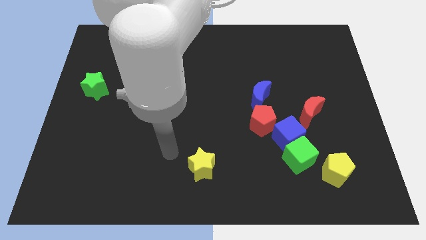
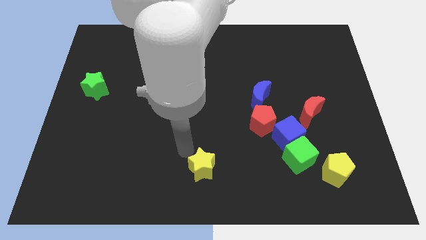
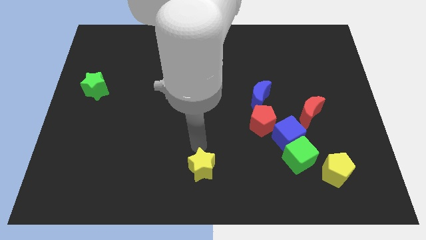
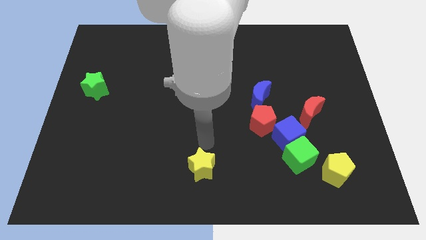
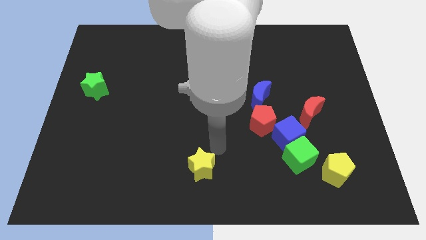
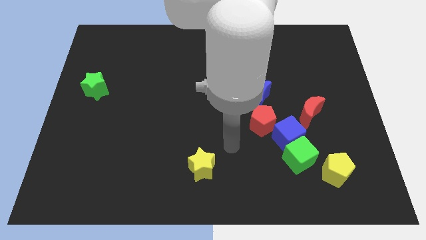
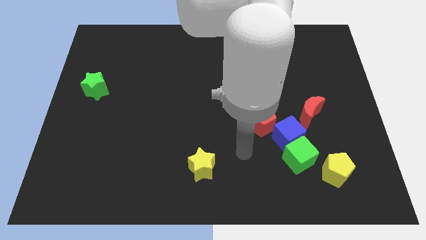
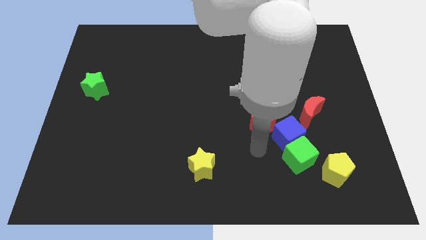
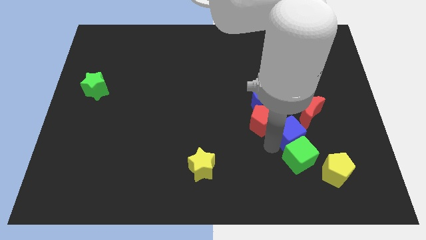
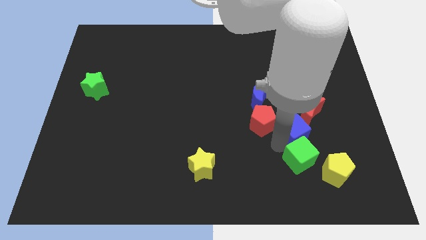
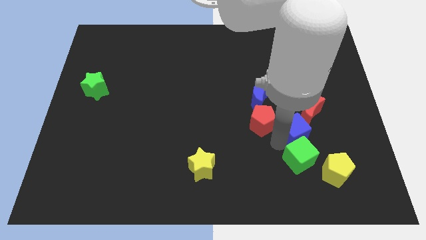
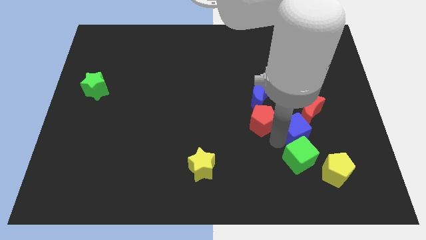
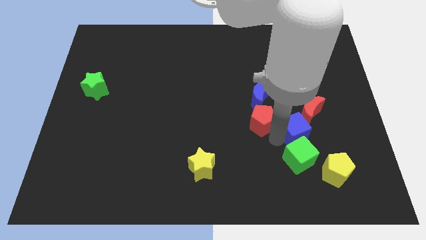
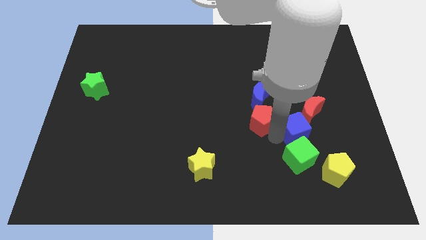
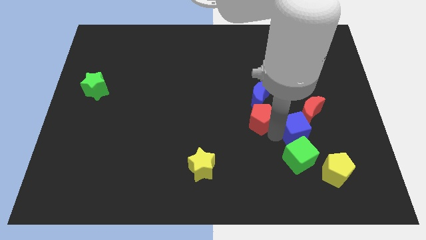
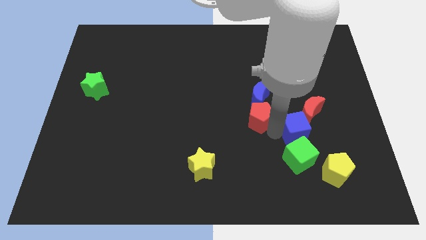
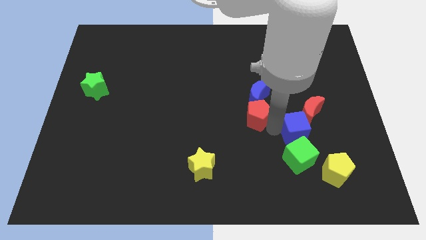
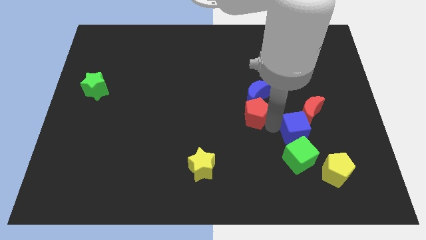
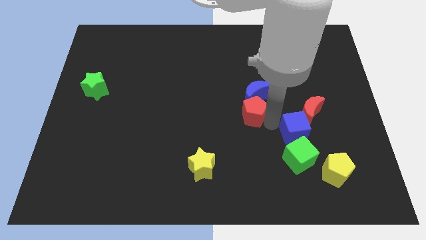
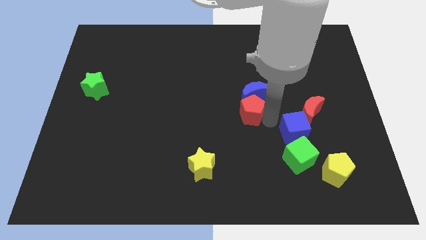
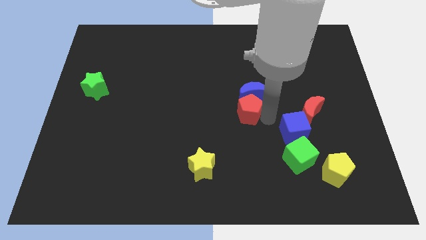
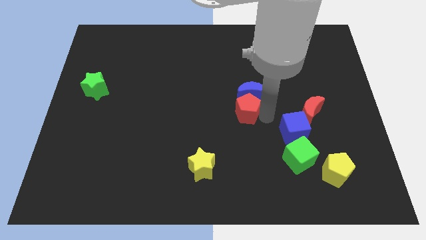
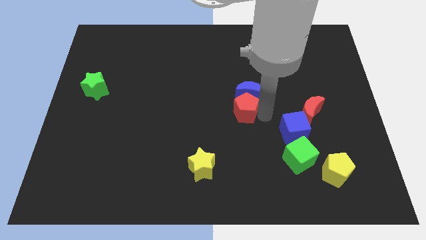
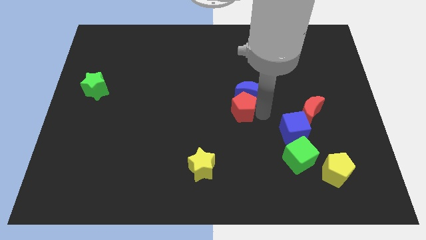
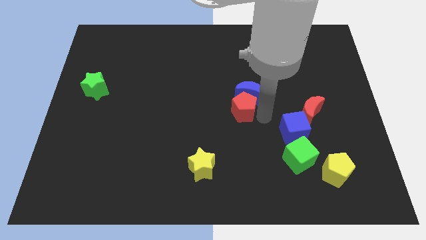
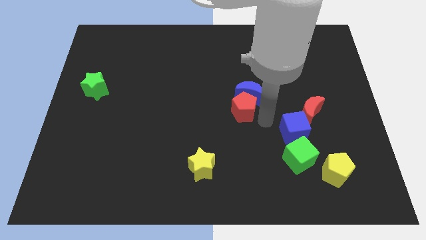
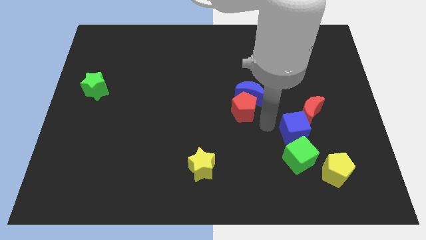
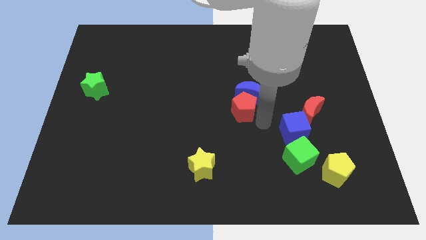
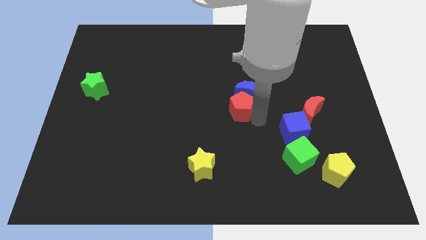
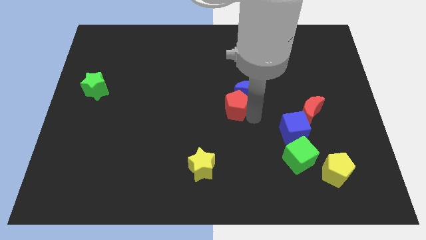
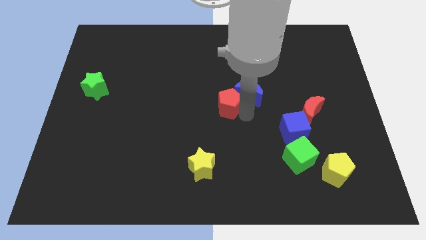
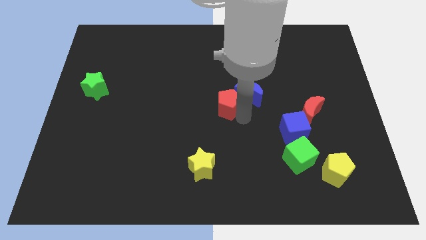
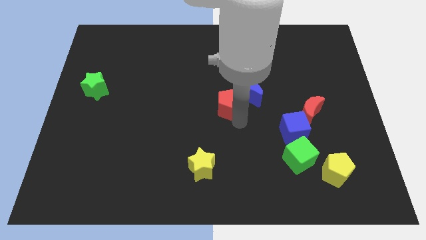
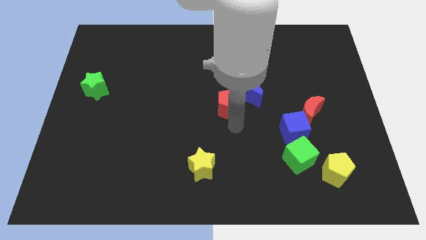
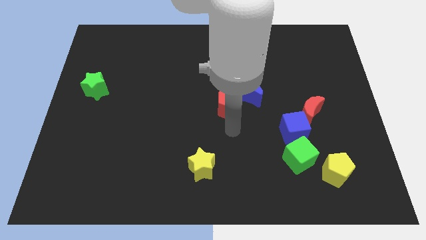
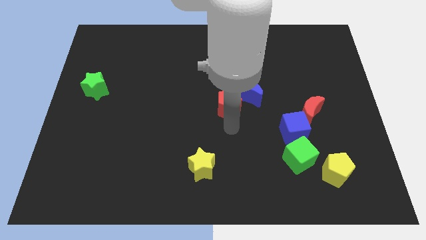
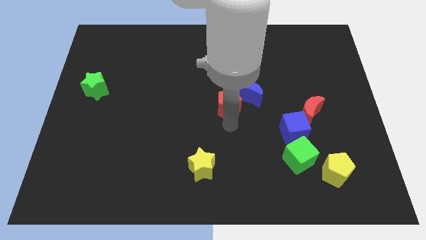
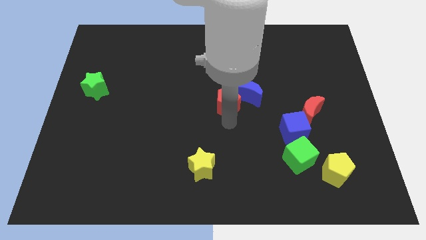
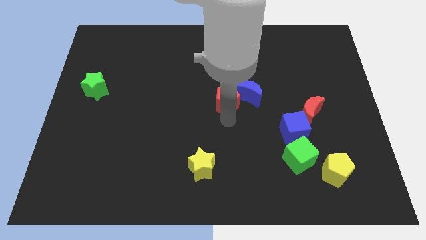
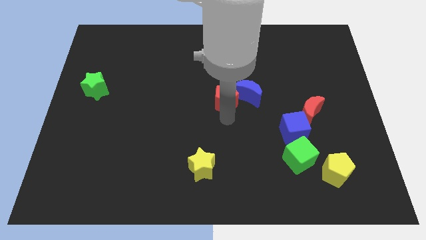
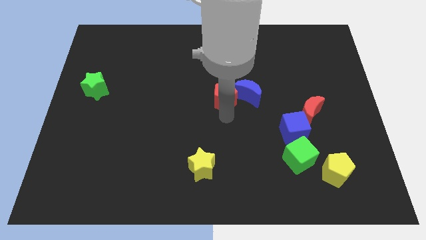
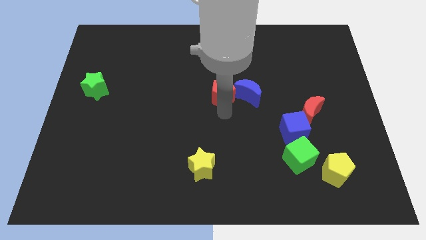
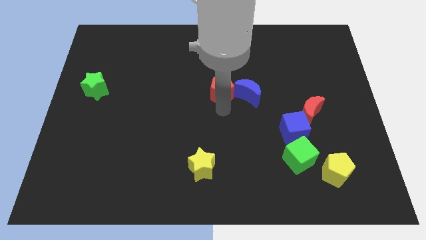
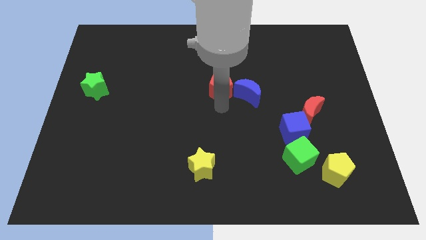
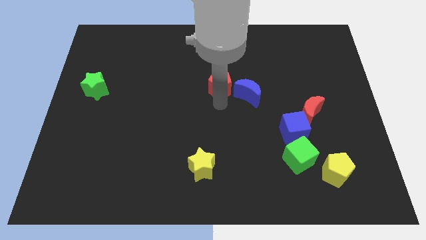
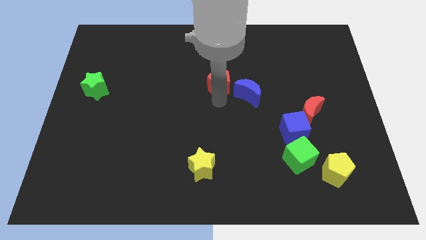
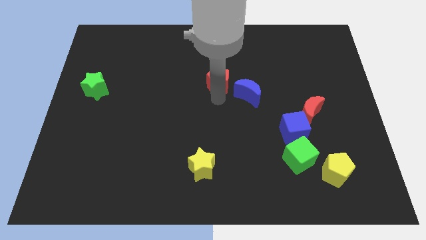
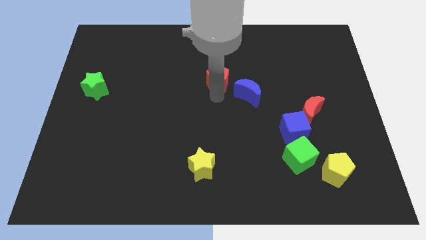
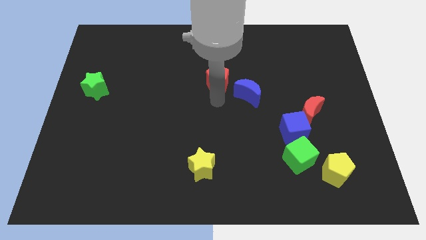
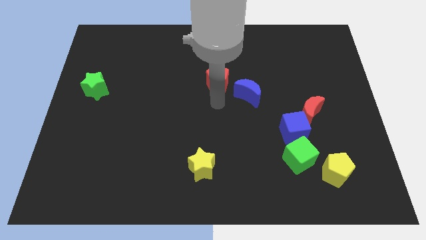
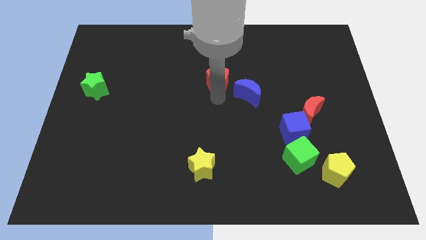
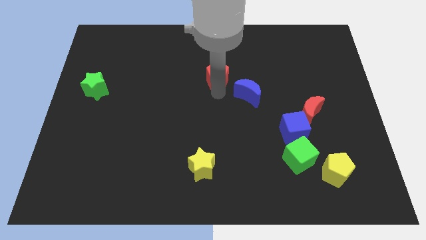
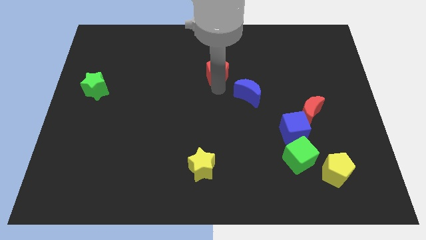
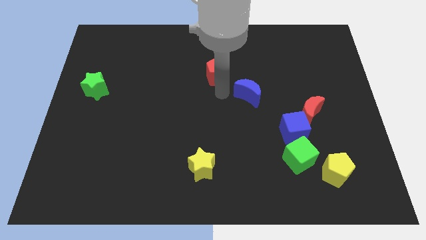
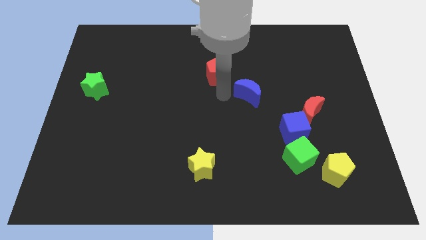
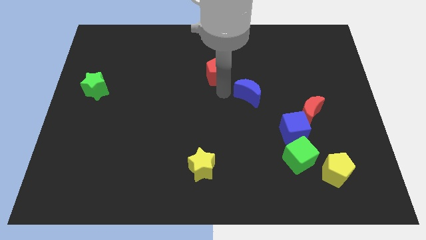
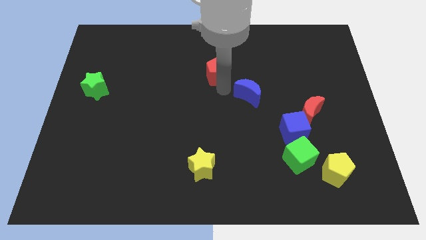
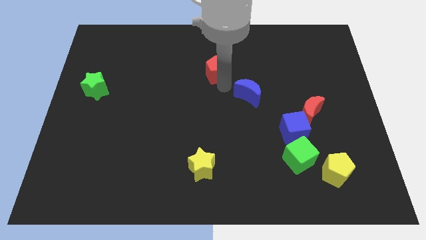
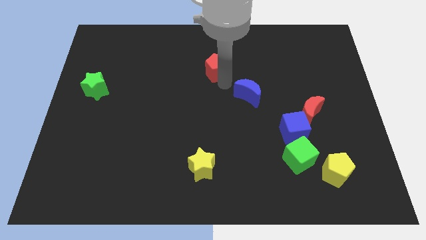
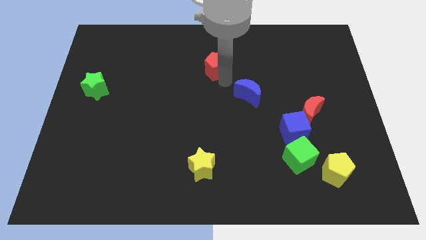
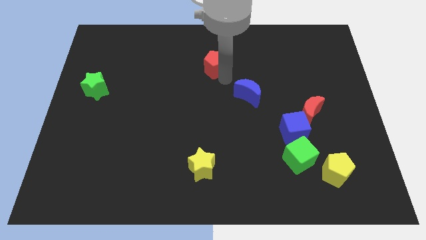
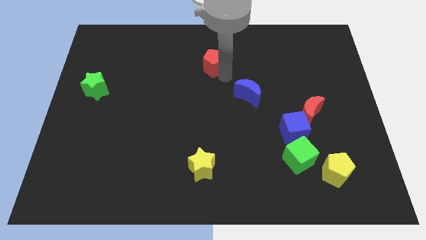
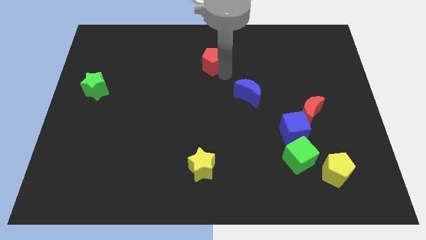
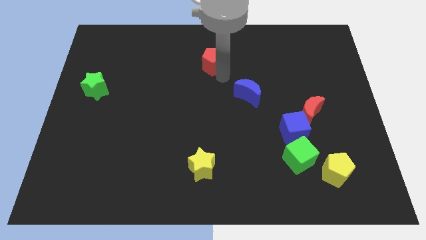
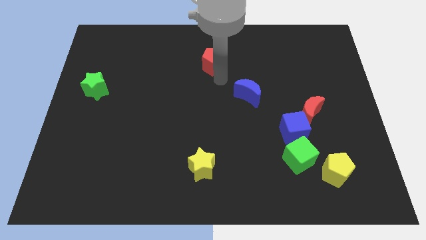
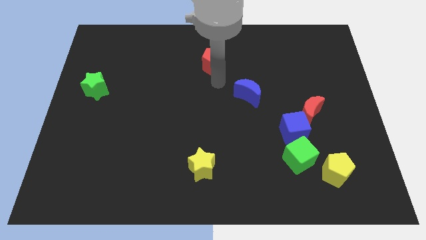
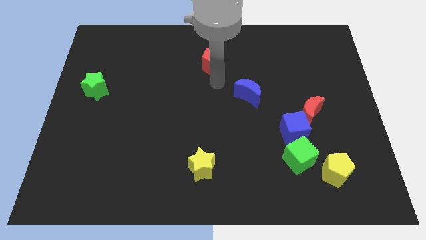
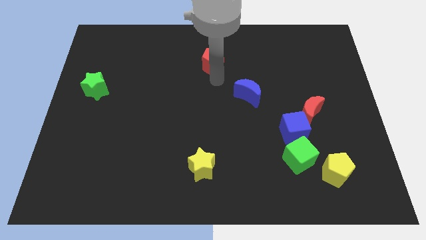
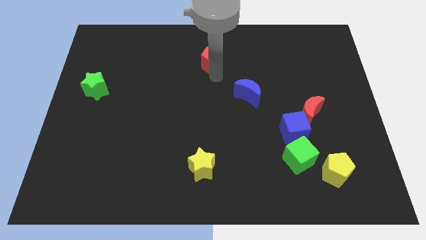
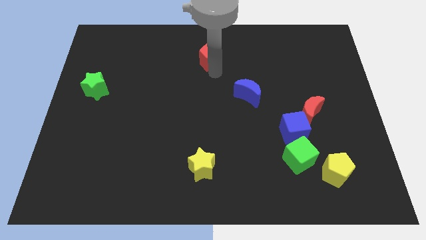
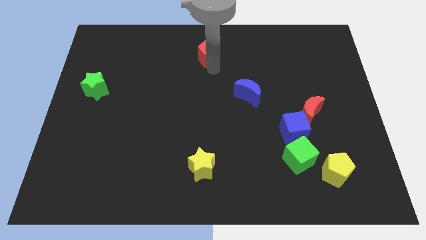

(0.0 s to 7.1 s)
push the red pentagon to the top side
